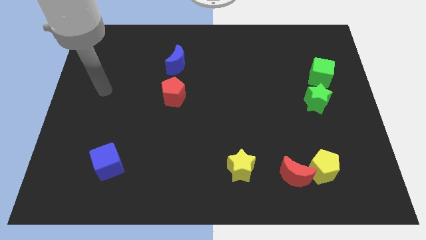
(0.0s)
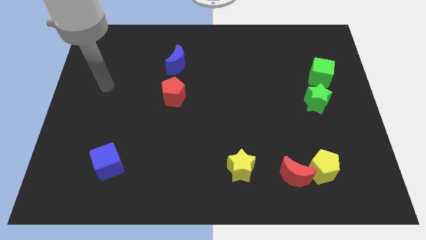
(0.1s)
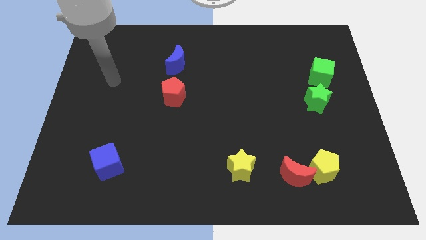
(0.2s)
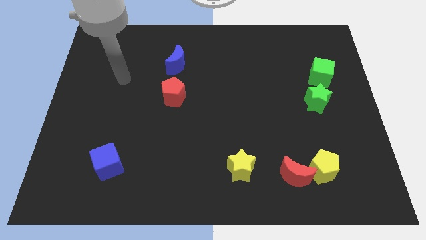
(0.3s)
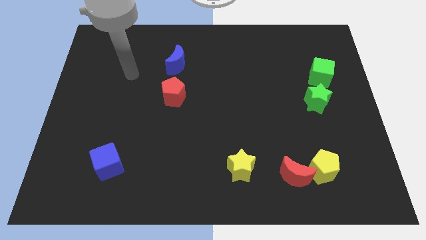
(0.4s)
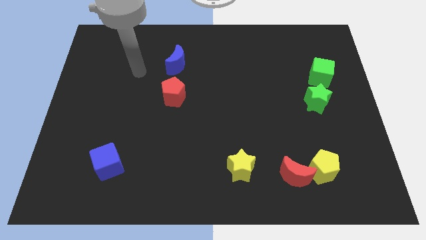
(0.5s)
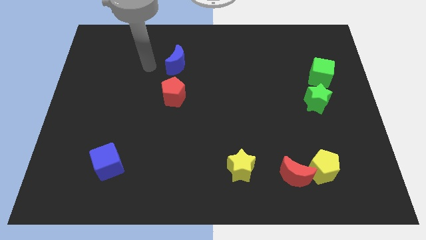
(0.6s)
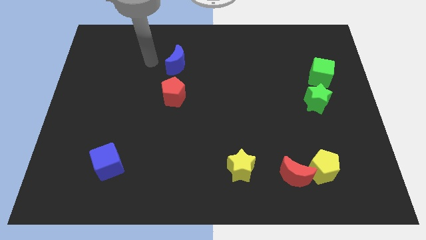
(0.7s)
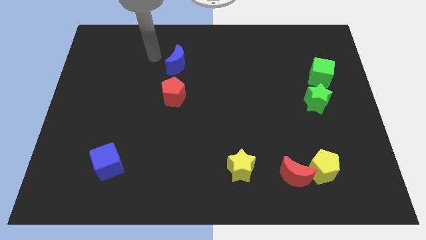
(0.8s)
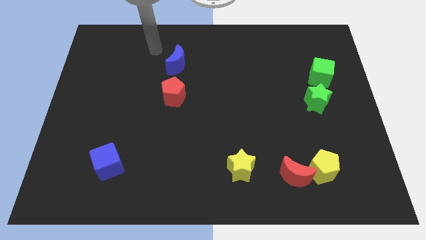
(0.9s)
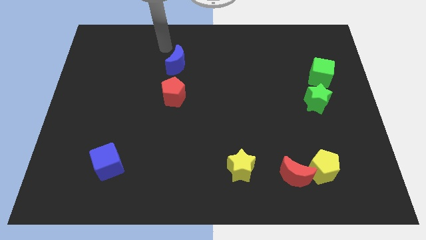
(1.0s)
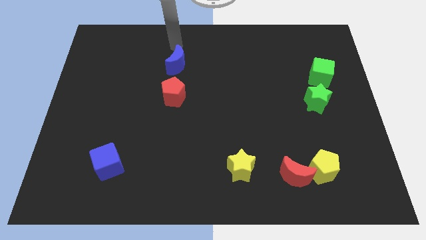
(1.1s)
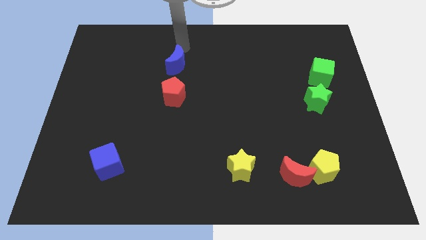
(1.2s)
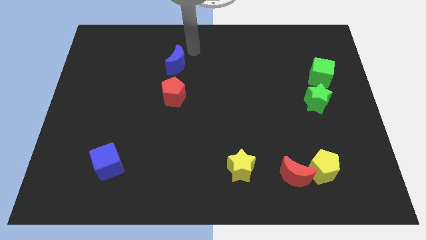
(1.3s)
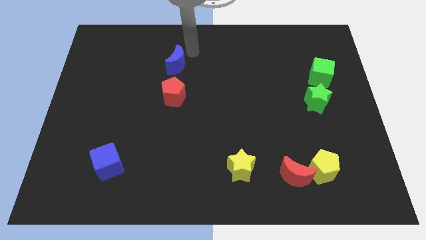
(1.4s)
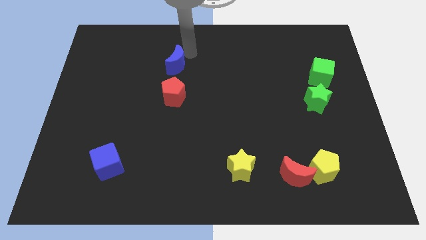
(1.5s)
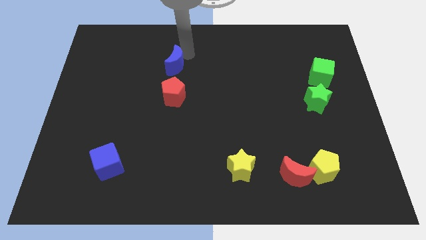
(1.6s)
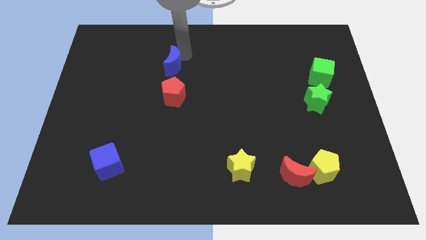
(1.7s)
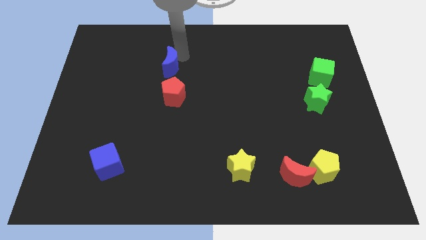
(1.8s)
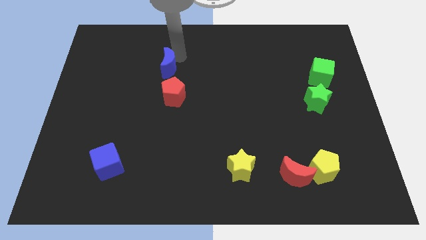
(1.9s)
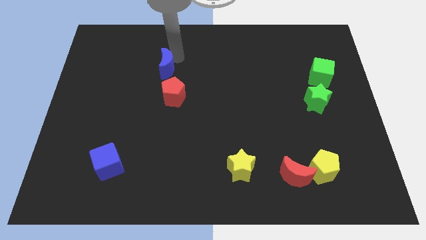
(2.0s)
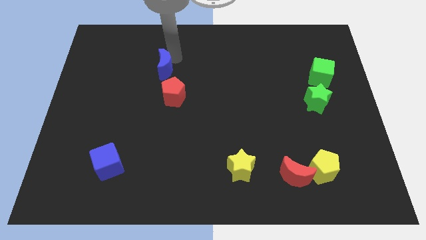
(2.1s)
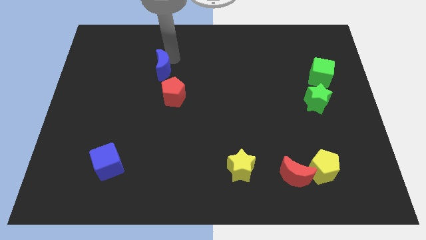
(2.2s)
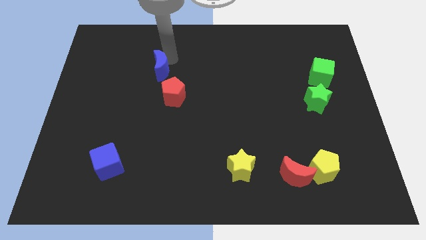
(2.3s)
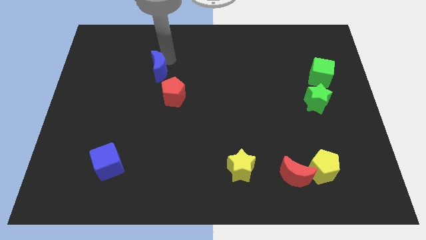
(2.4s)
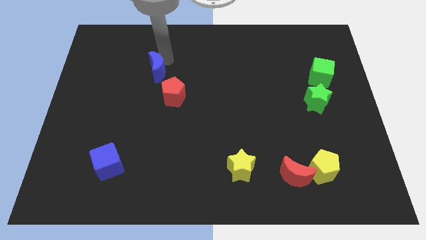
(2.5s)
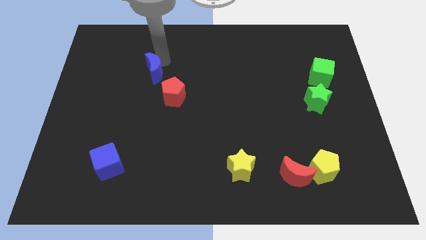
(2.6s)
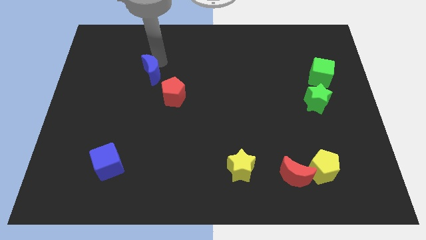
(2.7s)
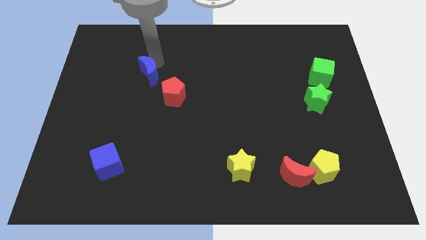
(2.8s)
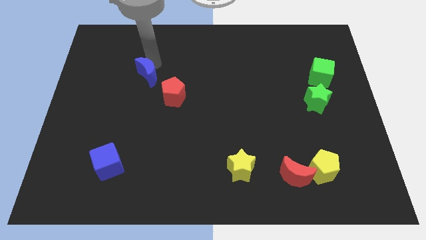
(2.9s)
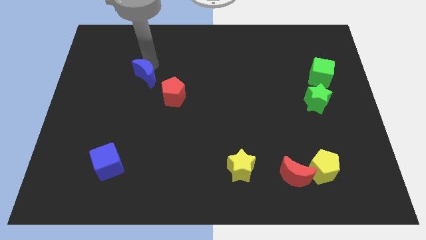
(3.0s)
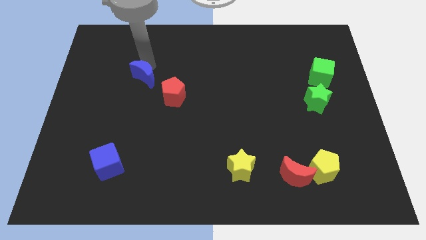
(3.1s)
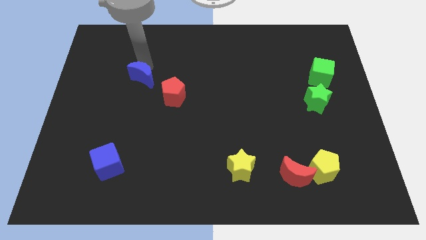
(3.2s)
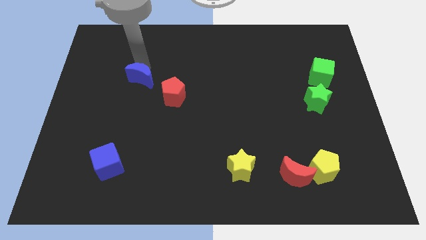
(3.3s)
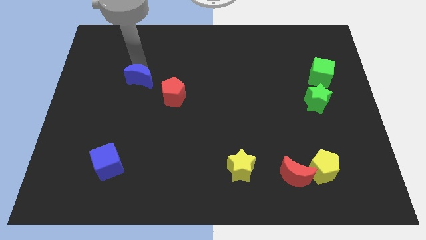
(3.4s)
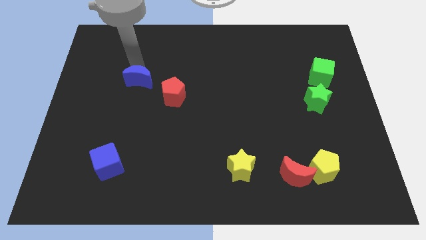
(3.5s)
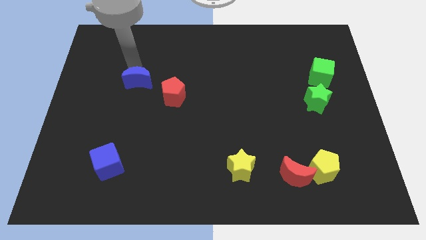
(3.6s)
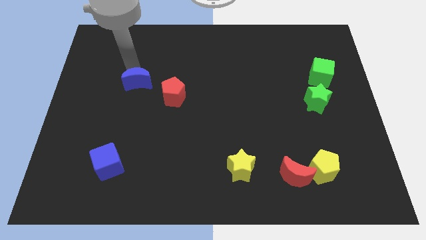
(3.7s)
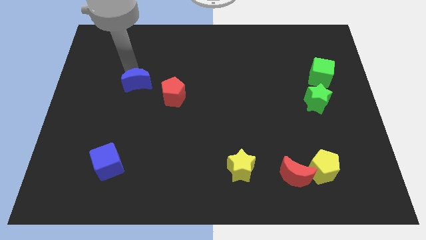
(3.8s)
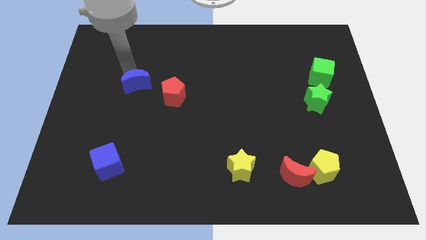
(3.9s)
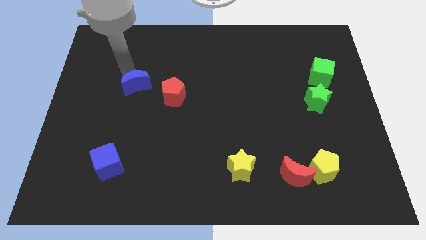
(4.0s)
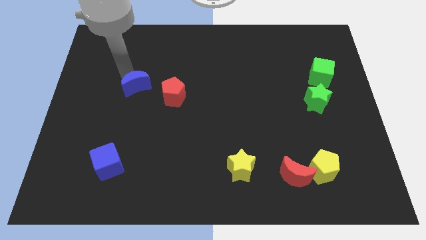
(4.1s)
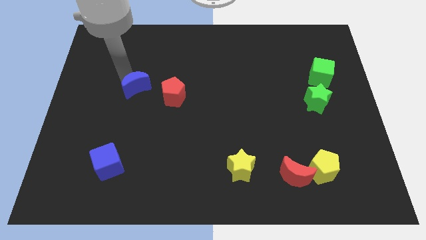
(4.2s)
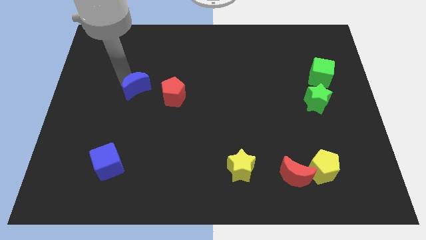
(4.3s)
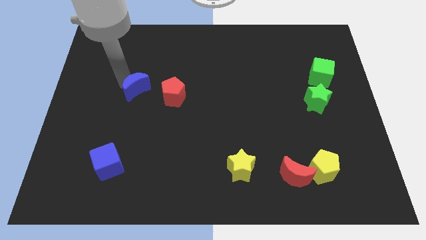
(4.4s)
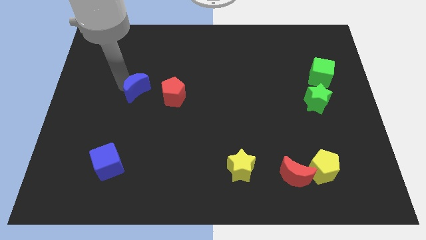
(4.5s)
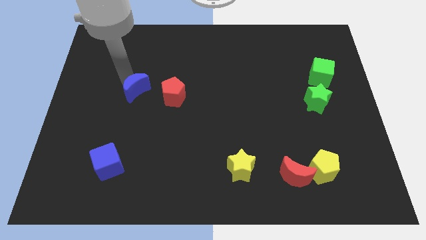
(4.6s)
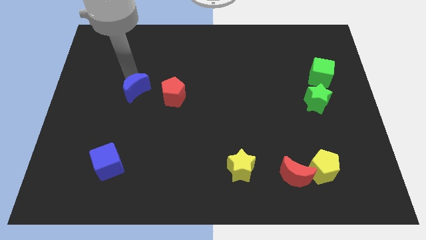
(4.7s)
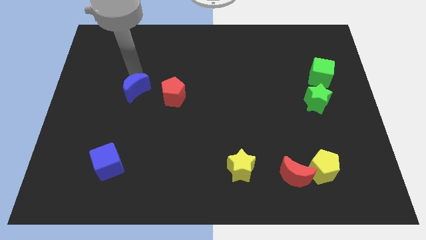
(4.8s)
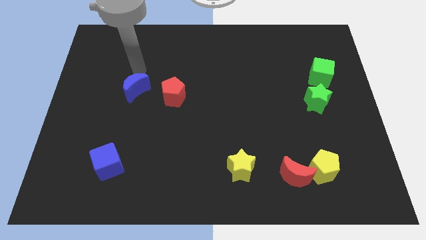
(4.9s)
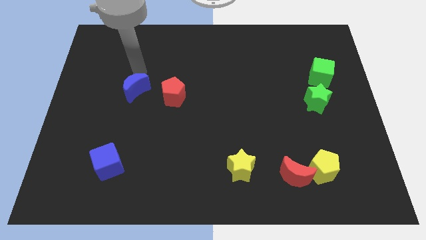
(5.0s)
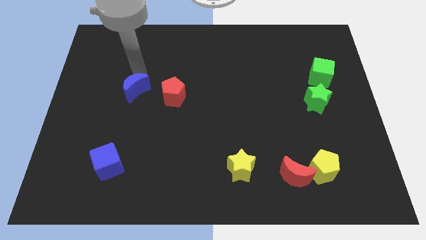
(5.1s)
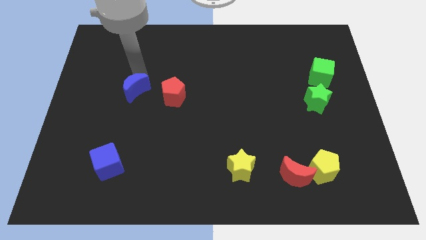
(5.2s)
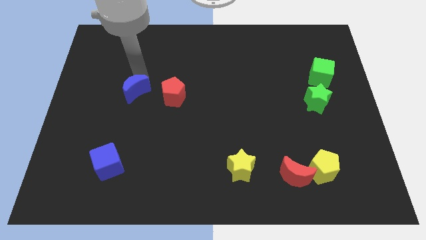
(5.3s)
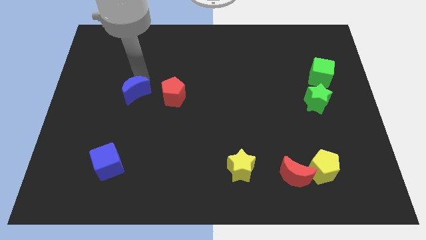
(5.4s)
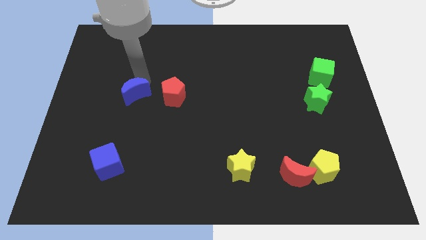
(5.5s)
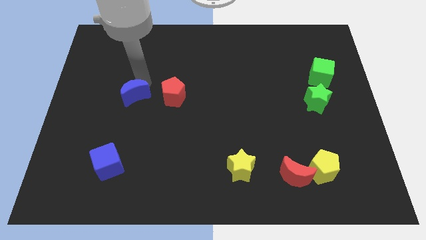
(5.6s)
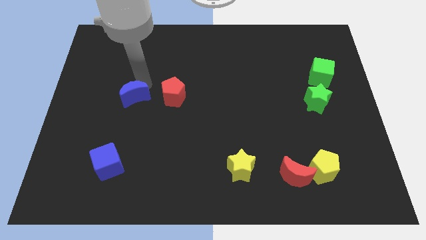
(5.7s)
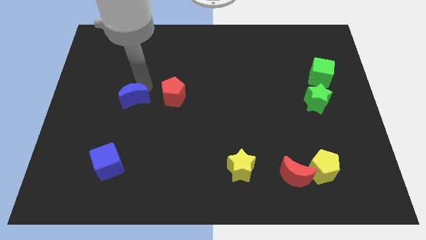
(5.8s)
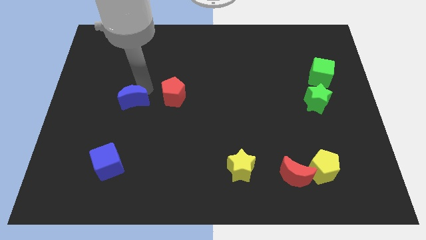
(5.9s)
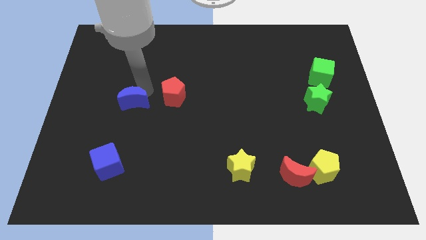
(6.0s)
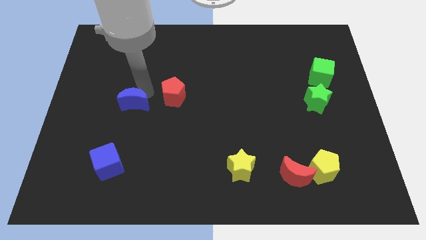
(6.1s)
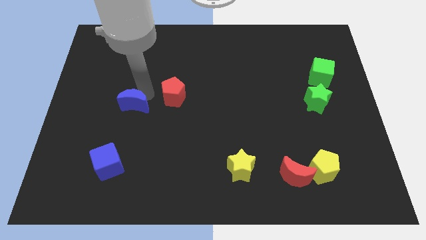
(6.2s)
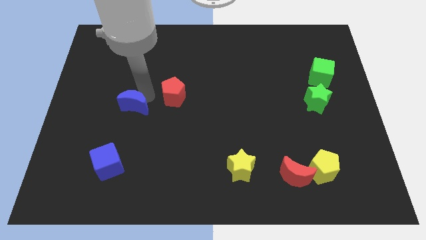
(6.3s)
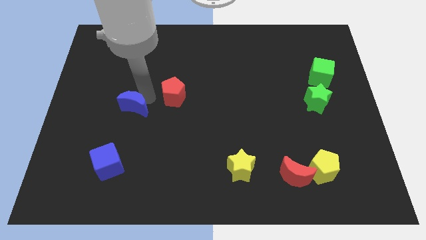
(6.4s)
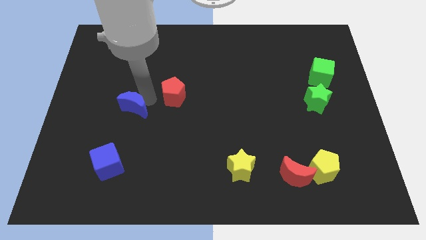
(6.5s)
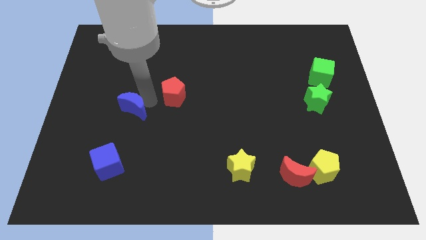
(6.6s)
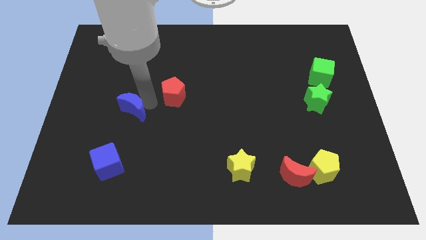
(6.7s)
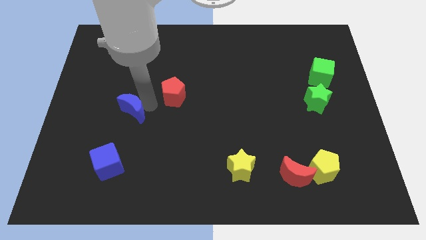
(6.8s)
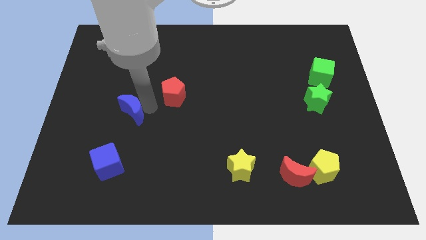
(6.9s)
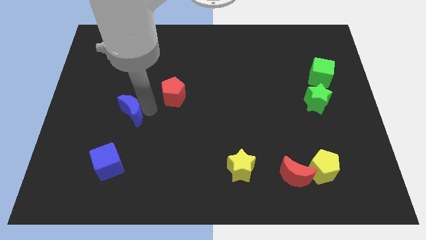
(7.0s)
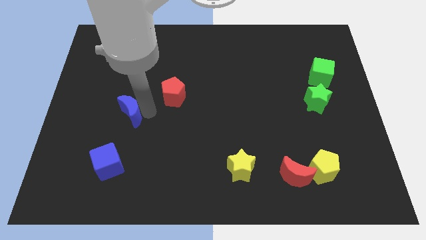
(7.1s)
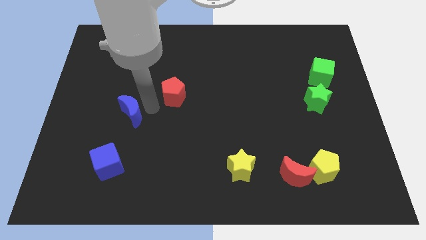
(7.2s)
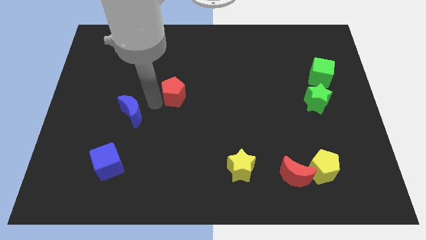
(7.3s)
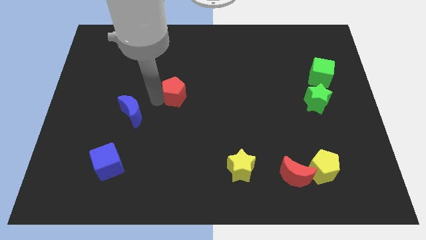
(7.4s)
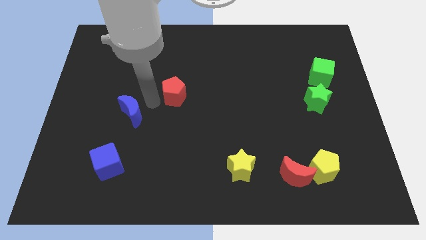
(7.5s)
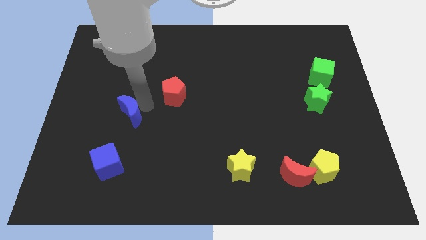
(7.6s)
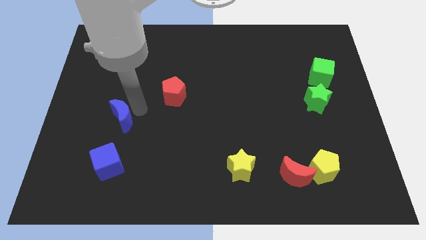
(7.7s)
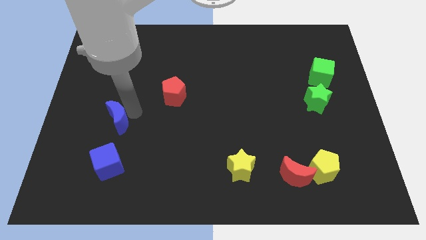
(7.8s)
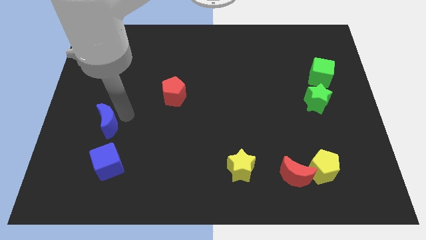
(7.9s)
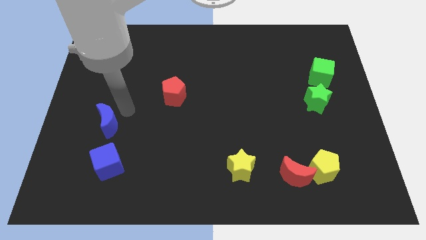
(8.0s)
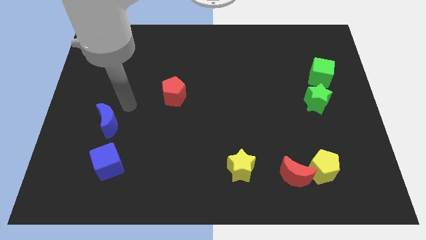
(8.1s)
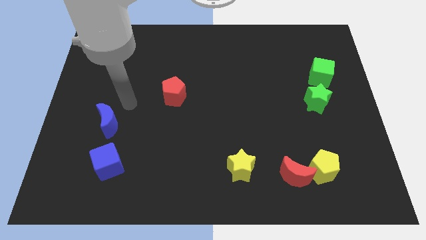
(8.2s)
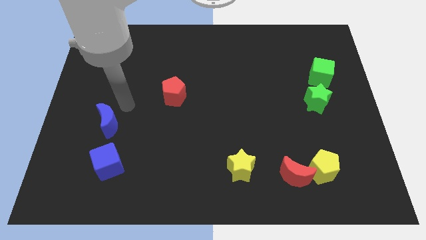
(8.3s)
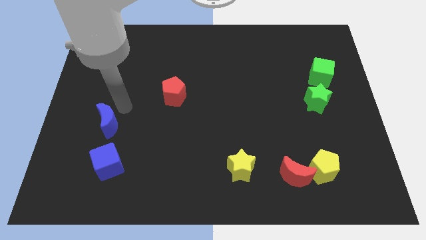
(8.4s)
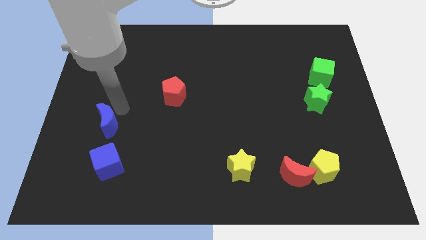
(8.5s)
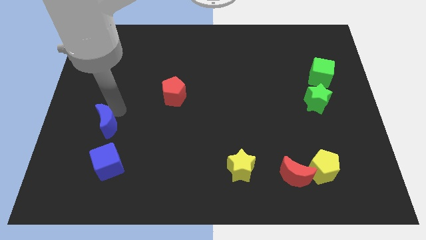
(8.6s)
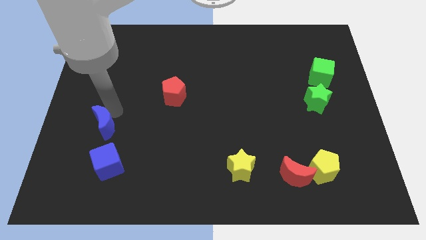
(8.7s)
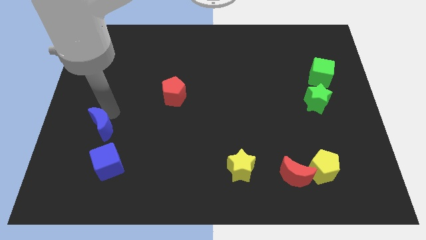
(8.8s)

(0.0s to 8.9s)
slide the blue moon to the top left of the blue cube
